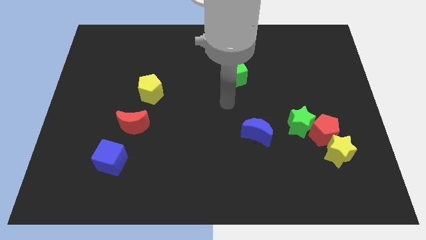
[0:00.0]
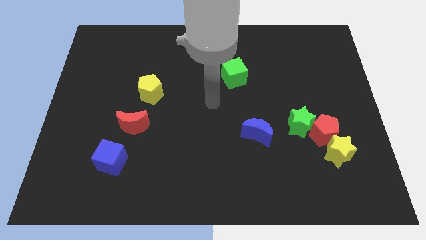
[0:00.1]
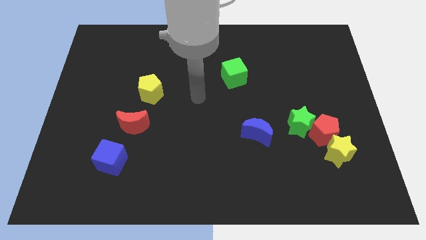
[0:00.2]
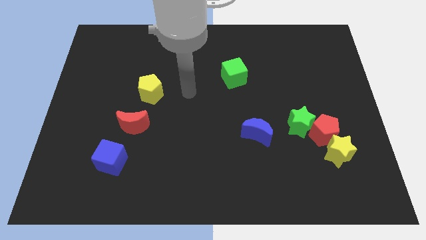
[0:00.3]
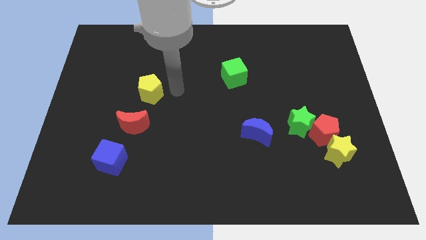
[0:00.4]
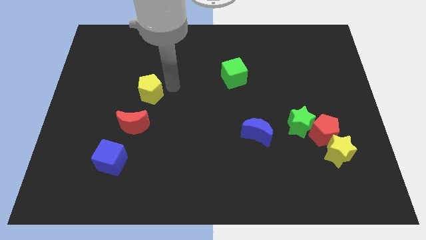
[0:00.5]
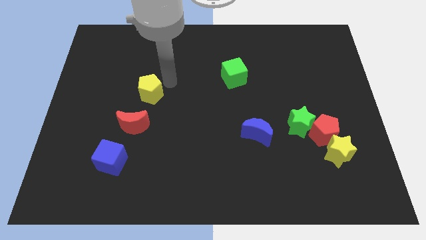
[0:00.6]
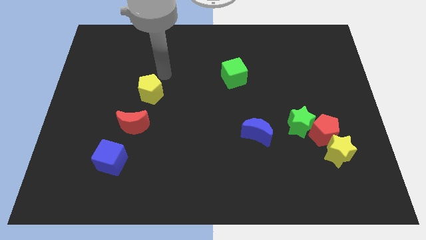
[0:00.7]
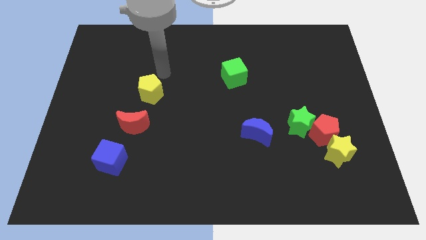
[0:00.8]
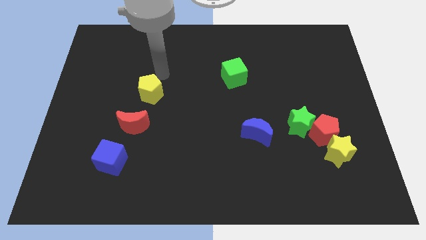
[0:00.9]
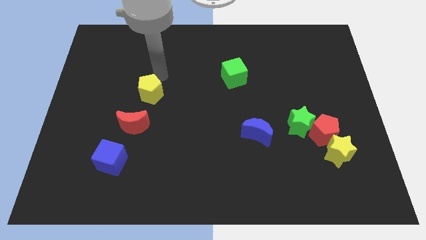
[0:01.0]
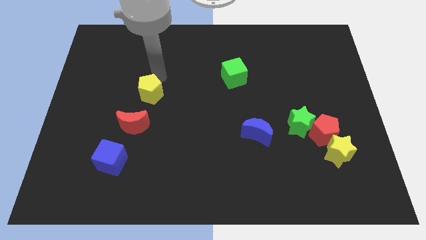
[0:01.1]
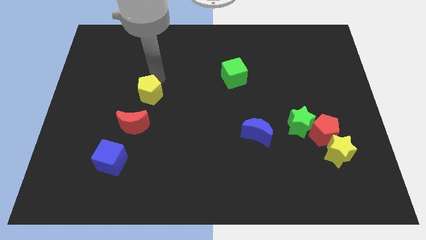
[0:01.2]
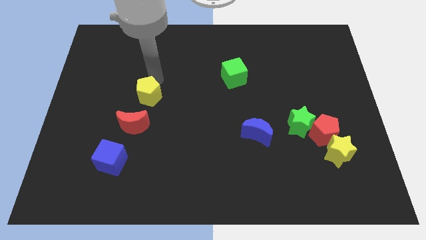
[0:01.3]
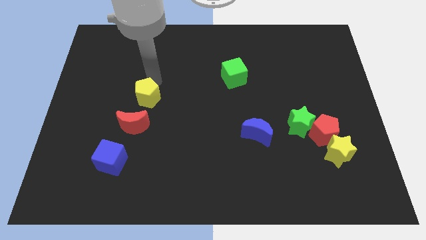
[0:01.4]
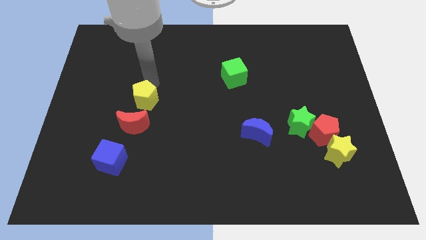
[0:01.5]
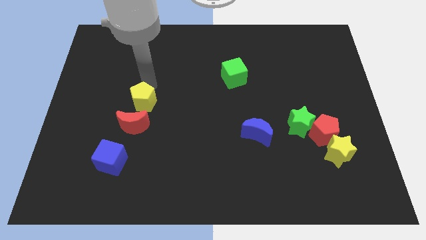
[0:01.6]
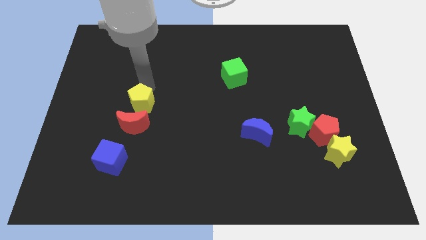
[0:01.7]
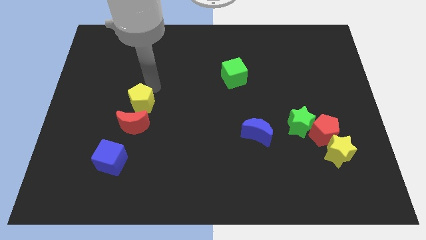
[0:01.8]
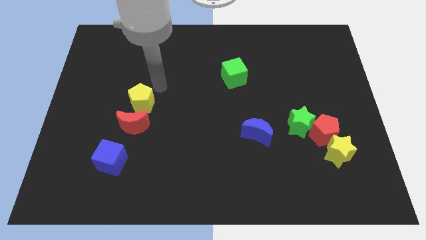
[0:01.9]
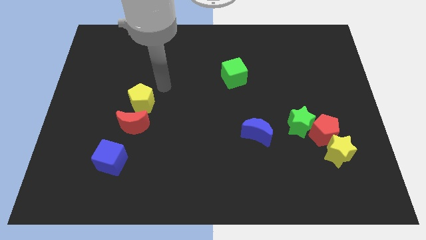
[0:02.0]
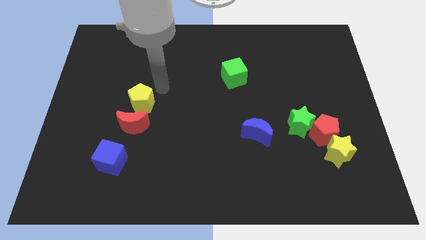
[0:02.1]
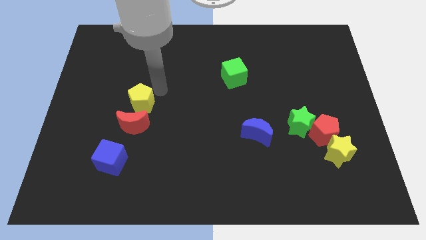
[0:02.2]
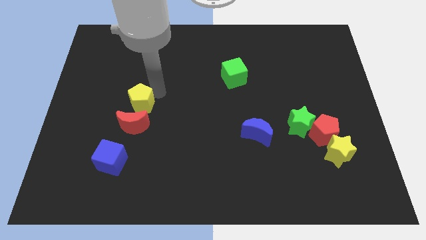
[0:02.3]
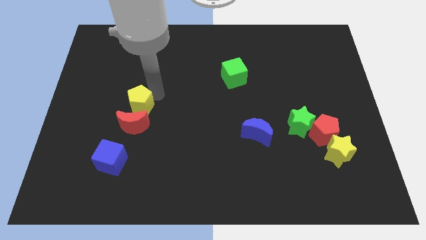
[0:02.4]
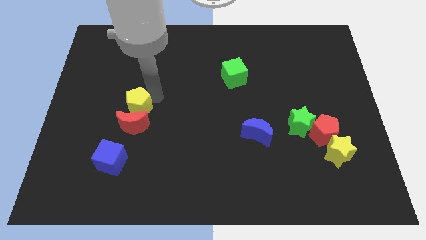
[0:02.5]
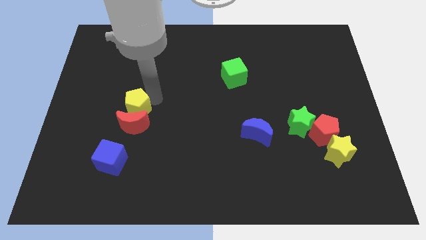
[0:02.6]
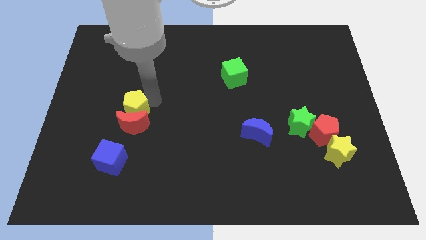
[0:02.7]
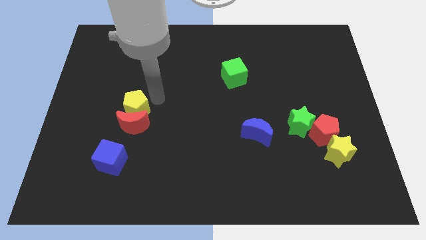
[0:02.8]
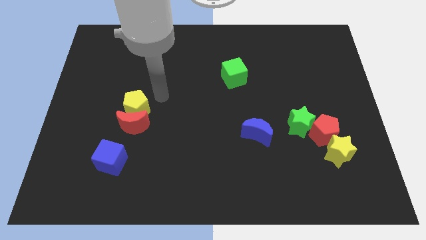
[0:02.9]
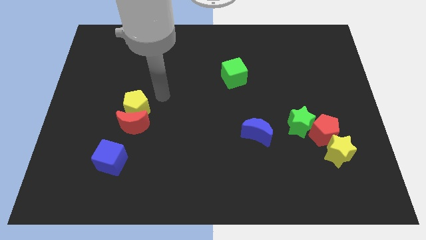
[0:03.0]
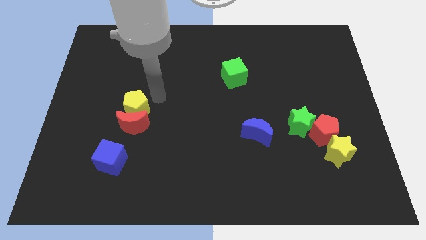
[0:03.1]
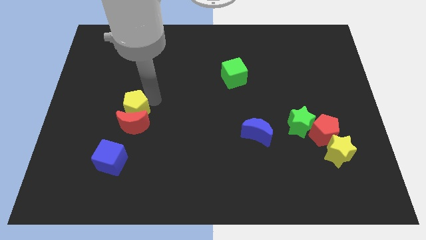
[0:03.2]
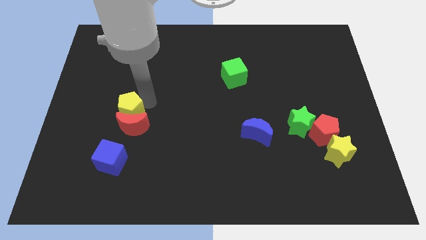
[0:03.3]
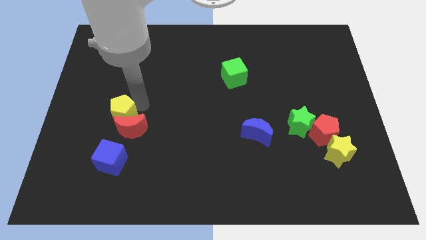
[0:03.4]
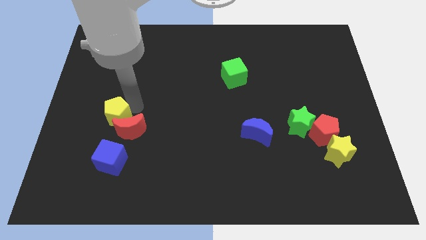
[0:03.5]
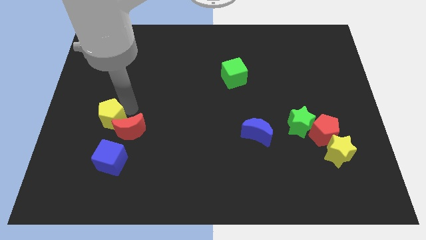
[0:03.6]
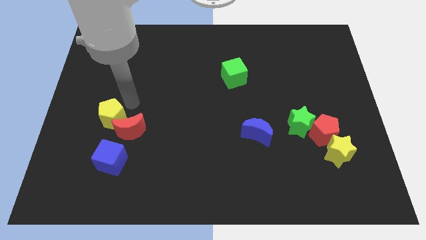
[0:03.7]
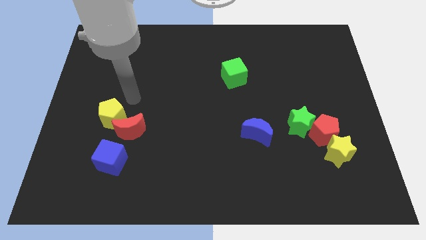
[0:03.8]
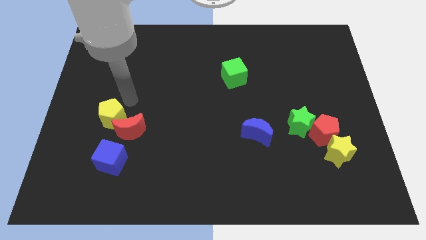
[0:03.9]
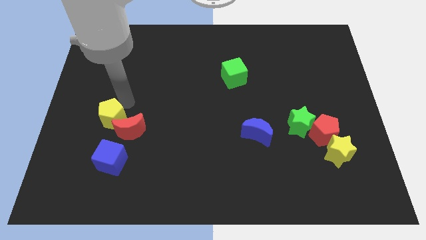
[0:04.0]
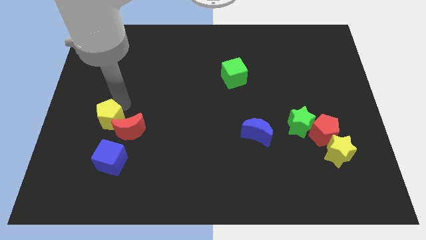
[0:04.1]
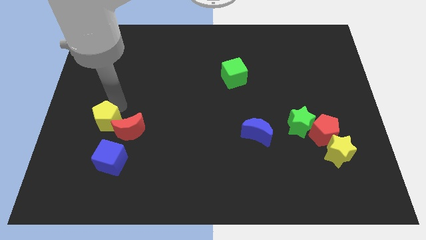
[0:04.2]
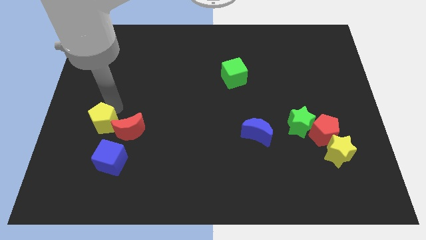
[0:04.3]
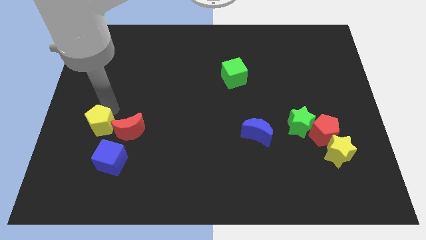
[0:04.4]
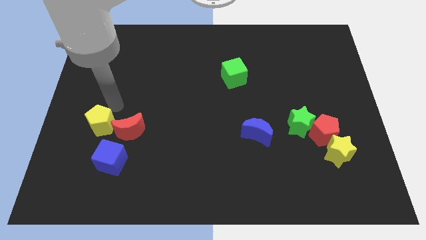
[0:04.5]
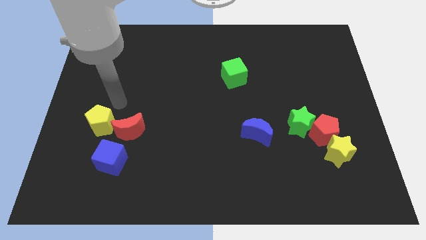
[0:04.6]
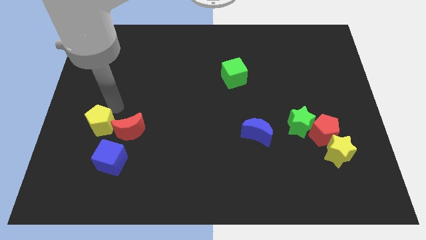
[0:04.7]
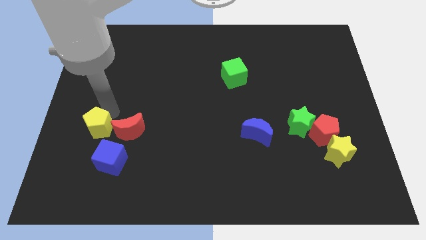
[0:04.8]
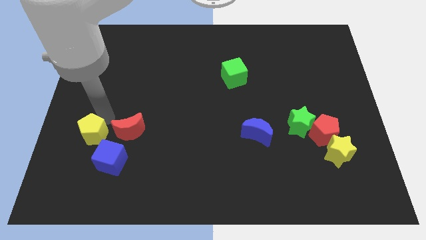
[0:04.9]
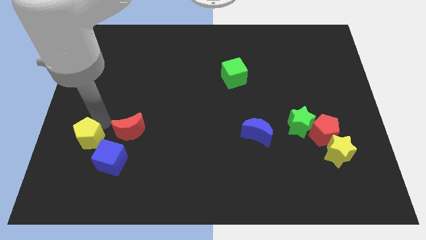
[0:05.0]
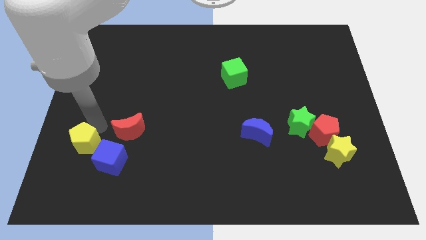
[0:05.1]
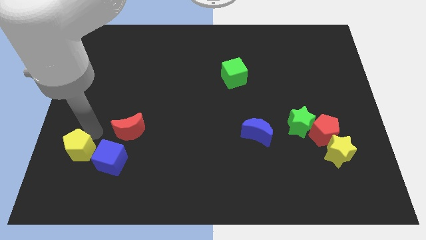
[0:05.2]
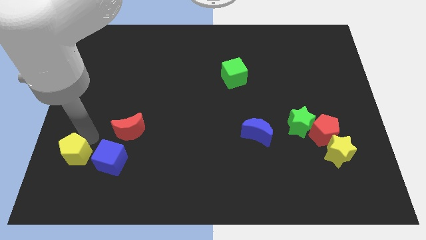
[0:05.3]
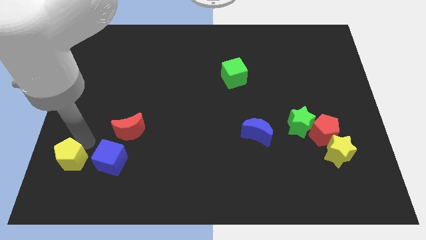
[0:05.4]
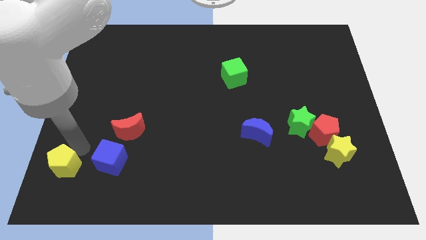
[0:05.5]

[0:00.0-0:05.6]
put the yellow pentagon to the bottom left of the board
